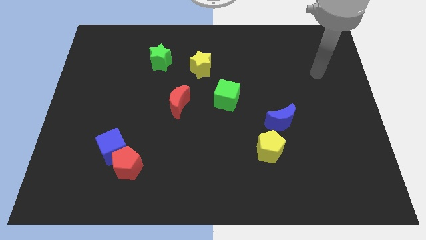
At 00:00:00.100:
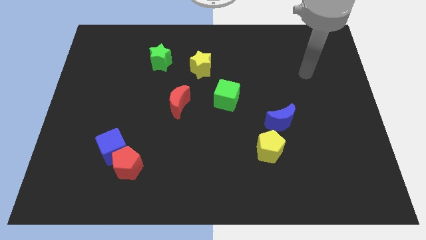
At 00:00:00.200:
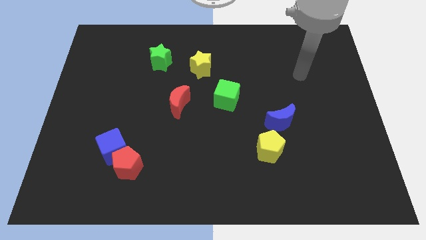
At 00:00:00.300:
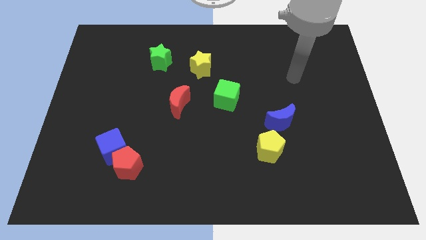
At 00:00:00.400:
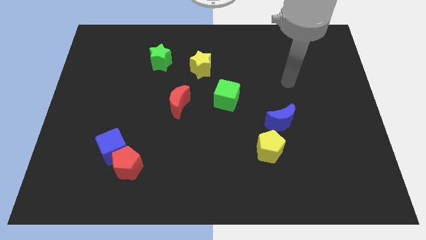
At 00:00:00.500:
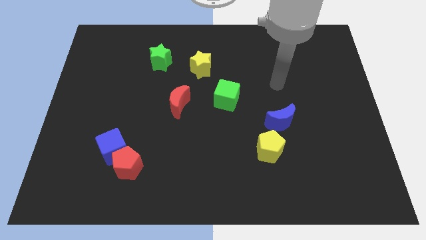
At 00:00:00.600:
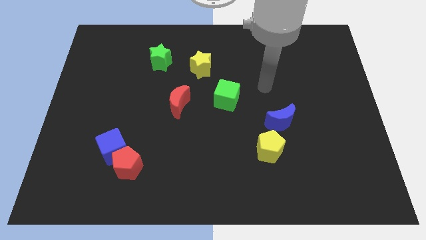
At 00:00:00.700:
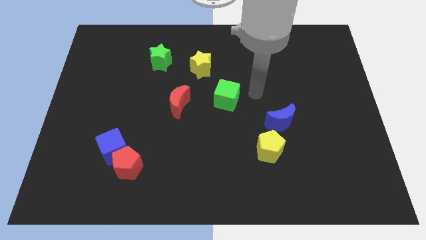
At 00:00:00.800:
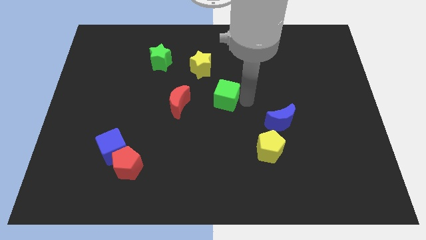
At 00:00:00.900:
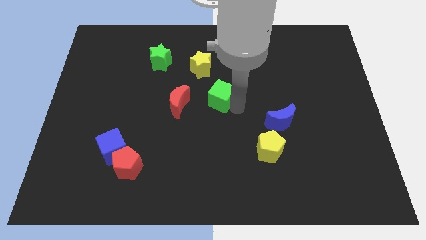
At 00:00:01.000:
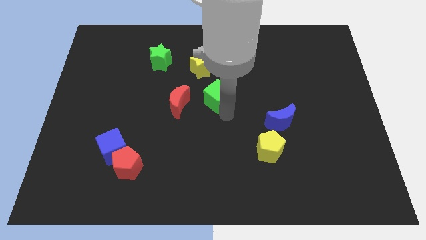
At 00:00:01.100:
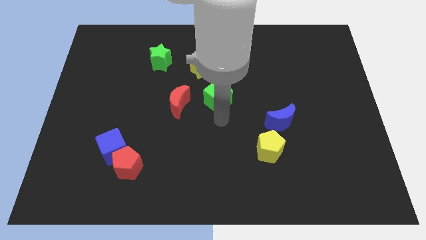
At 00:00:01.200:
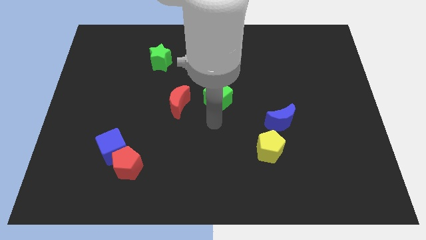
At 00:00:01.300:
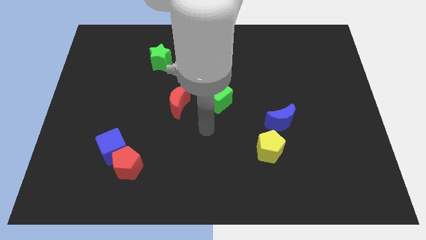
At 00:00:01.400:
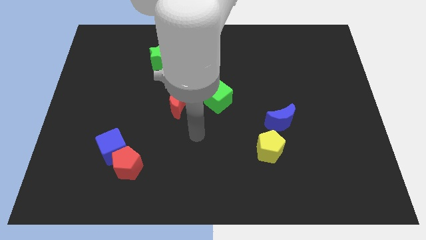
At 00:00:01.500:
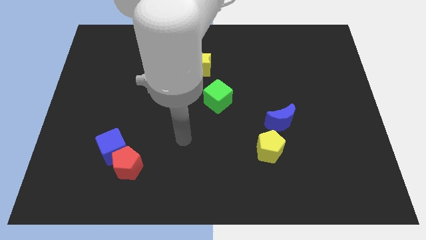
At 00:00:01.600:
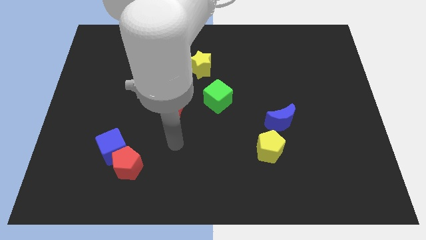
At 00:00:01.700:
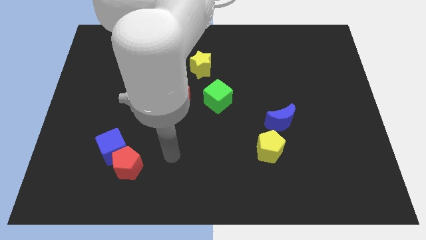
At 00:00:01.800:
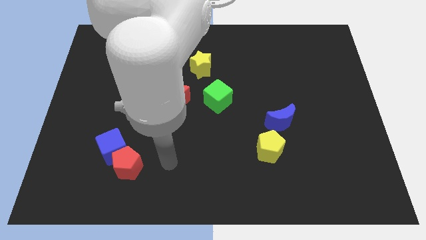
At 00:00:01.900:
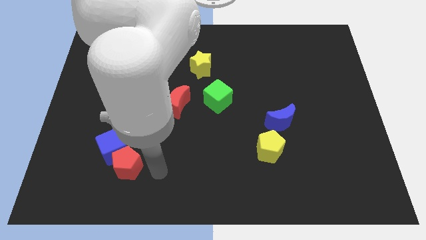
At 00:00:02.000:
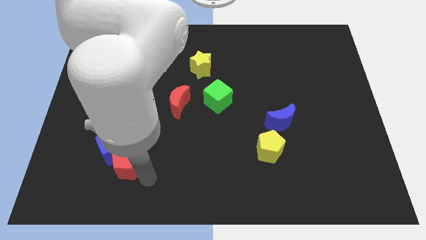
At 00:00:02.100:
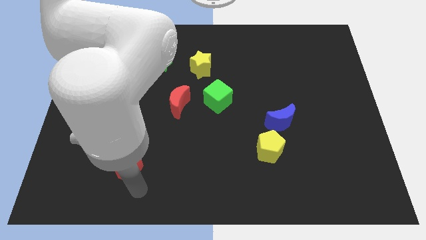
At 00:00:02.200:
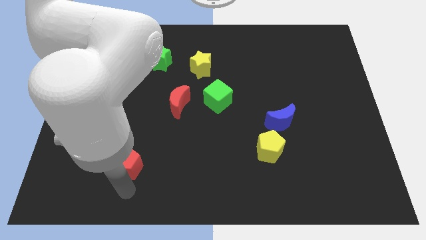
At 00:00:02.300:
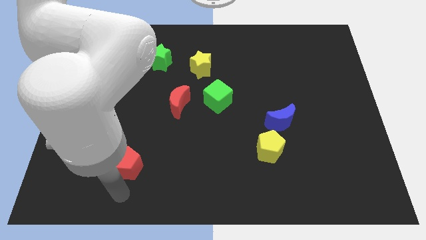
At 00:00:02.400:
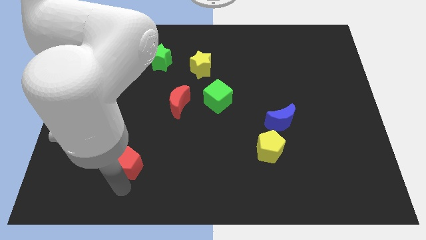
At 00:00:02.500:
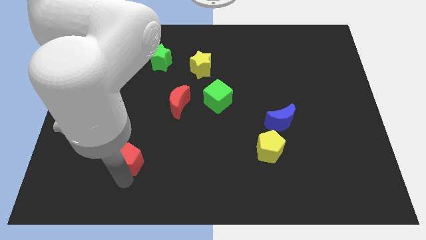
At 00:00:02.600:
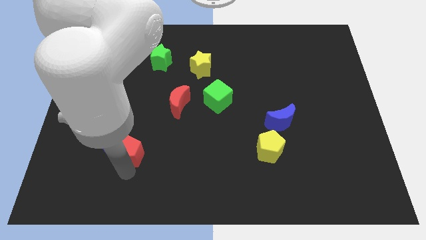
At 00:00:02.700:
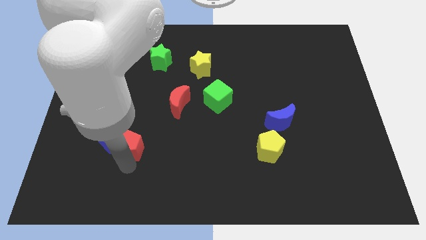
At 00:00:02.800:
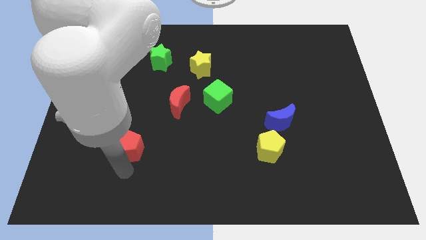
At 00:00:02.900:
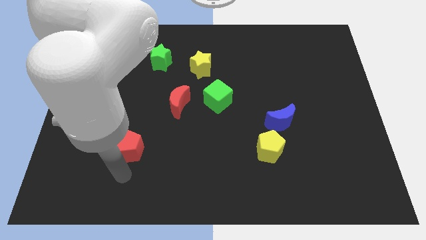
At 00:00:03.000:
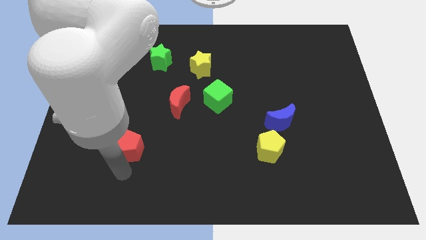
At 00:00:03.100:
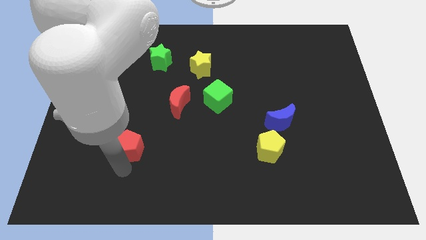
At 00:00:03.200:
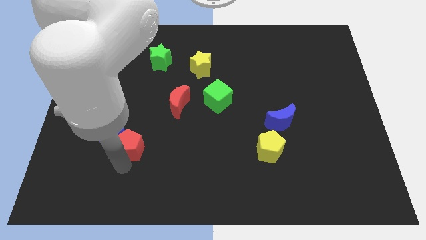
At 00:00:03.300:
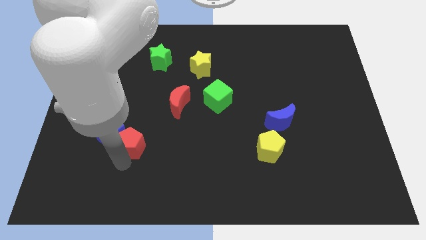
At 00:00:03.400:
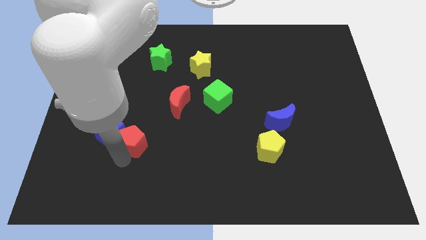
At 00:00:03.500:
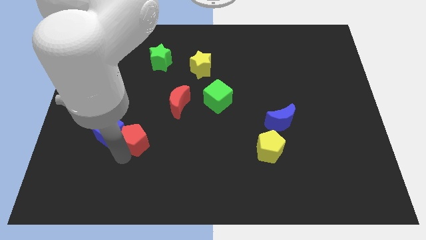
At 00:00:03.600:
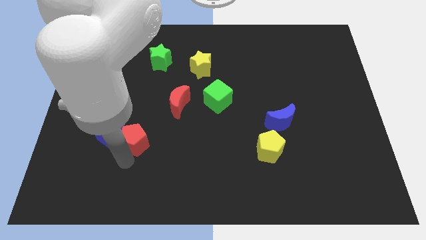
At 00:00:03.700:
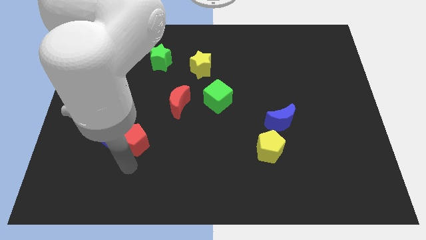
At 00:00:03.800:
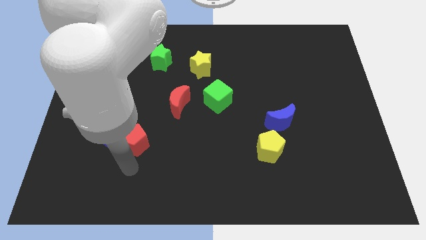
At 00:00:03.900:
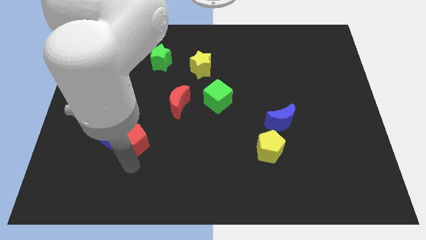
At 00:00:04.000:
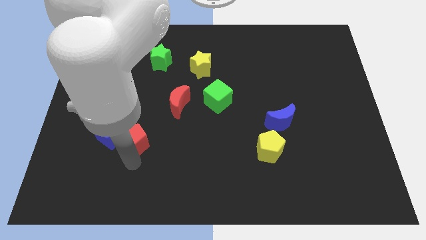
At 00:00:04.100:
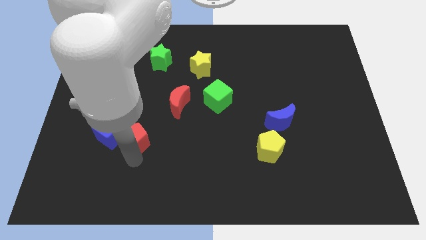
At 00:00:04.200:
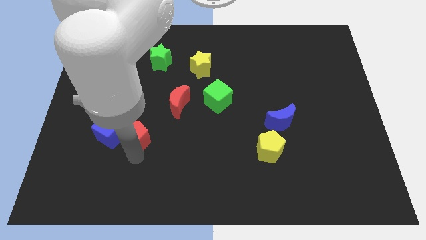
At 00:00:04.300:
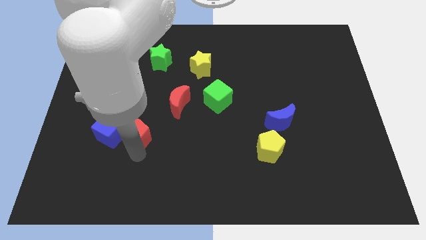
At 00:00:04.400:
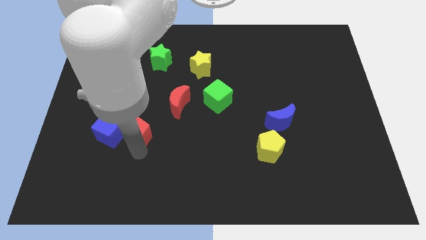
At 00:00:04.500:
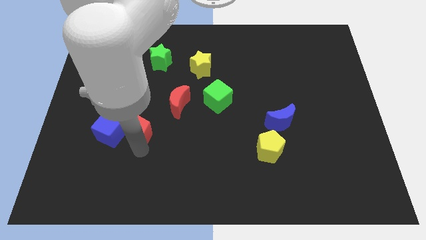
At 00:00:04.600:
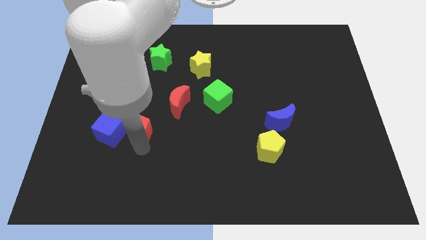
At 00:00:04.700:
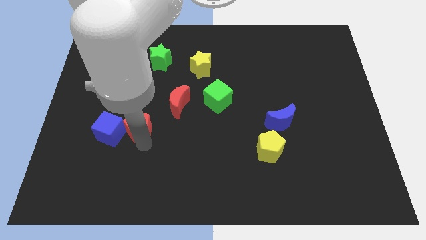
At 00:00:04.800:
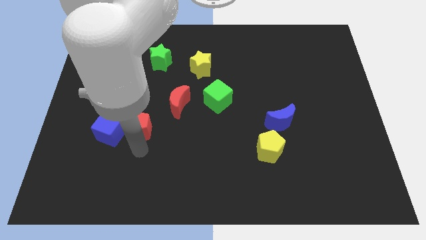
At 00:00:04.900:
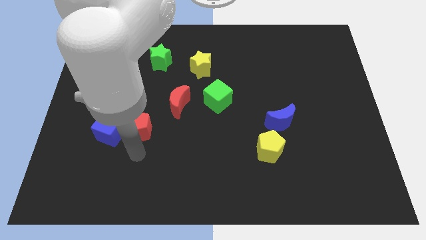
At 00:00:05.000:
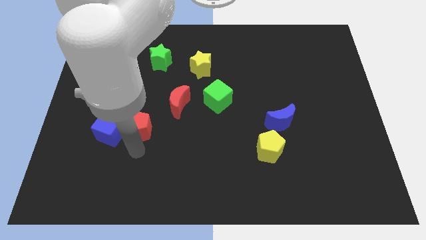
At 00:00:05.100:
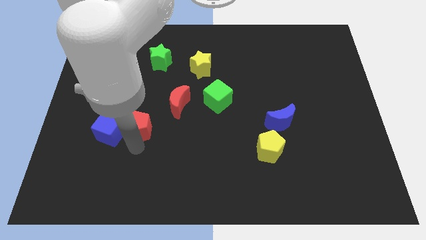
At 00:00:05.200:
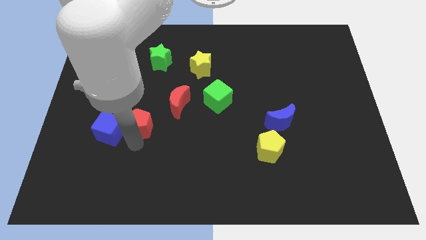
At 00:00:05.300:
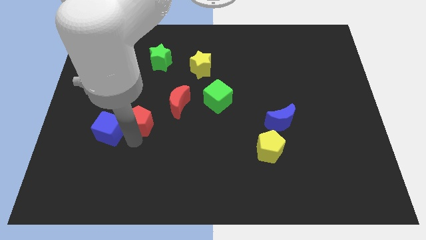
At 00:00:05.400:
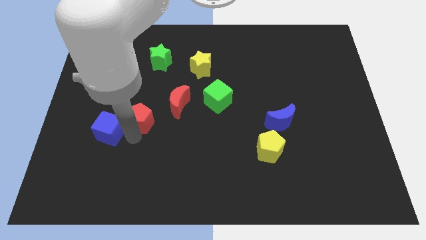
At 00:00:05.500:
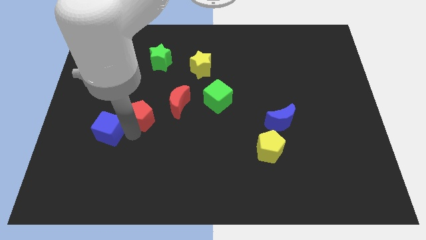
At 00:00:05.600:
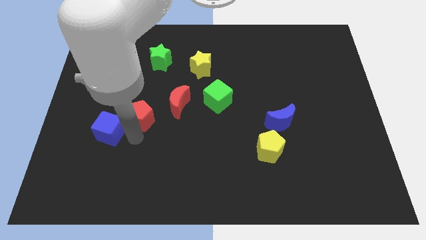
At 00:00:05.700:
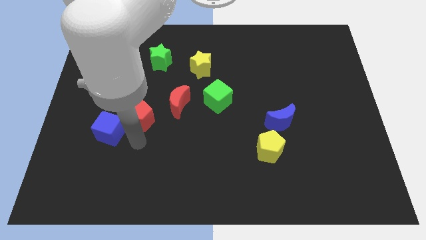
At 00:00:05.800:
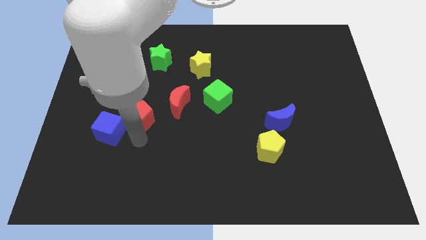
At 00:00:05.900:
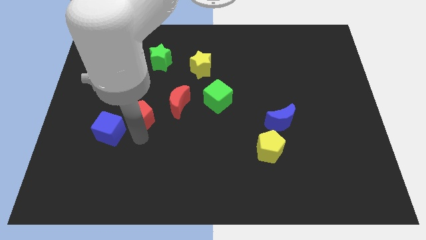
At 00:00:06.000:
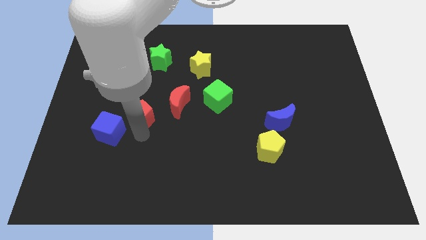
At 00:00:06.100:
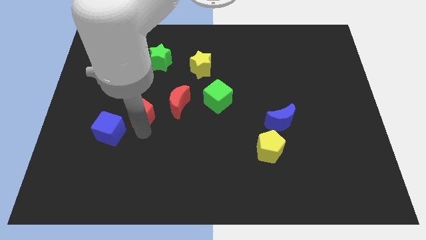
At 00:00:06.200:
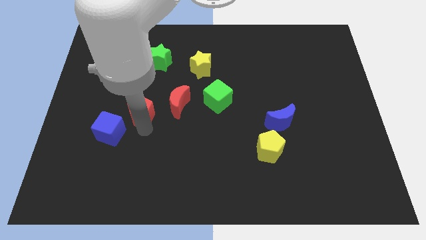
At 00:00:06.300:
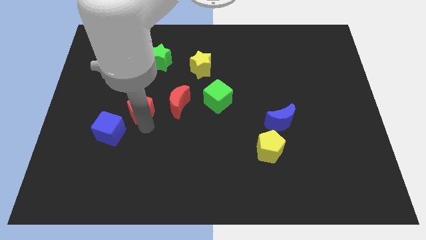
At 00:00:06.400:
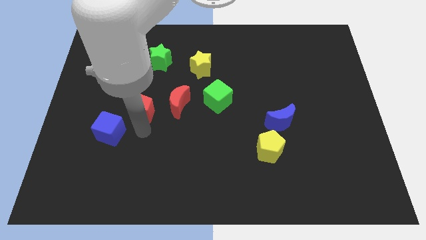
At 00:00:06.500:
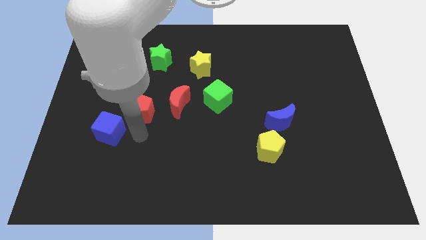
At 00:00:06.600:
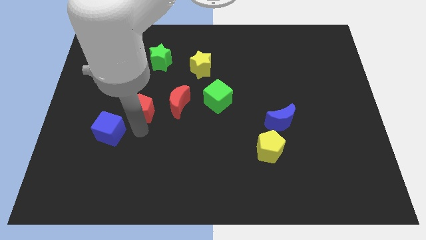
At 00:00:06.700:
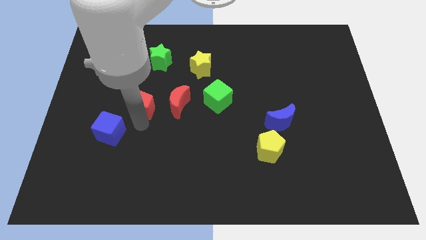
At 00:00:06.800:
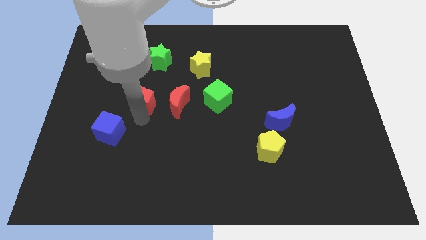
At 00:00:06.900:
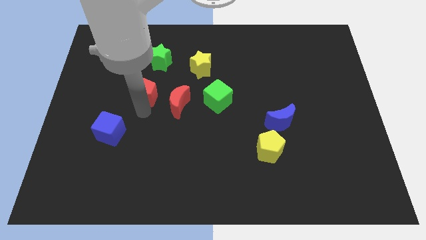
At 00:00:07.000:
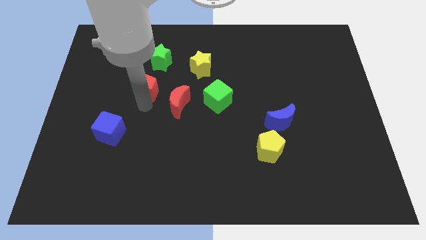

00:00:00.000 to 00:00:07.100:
push the red pentagon upwards

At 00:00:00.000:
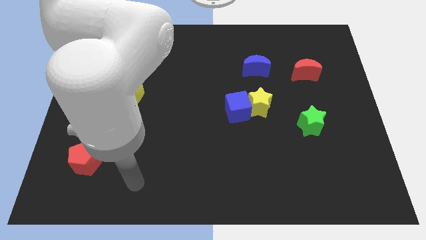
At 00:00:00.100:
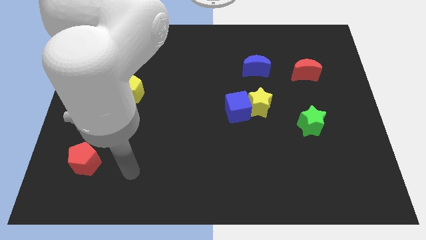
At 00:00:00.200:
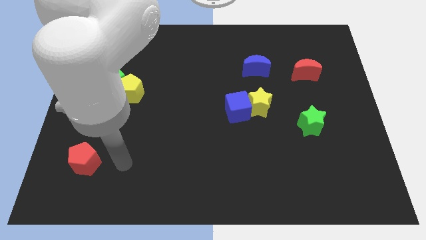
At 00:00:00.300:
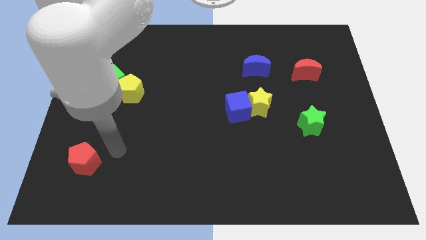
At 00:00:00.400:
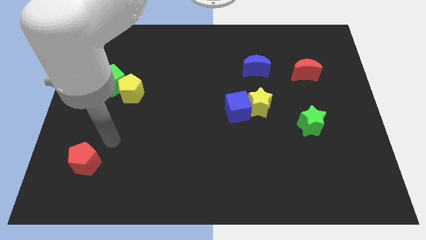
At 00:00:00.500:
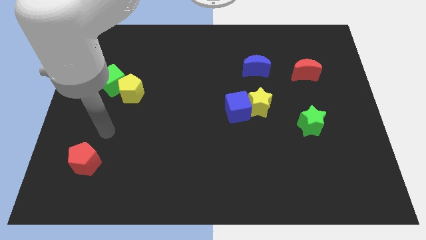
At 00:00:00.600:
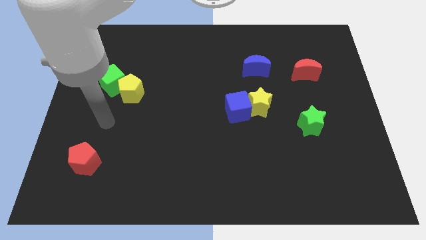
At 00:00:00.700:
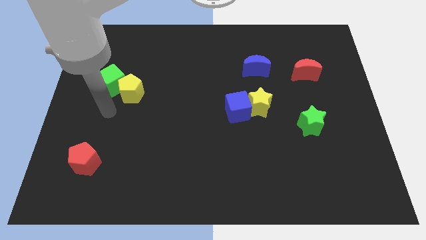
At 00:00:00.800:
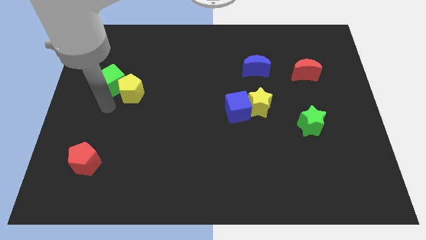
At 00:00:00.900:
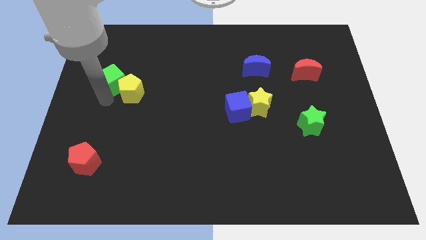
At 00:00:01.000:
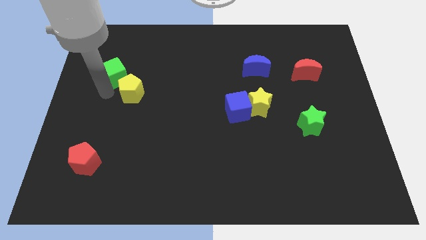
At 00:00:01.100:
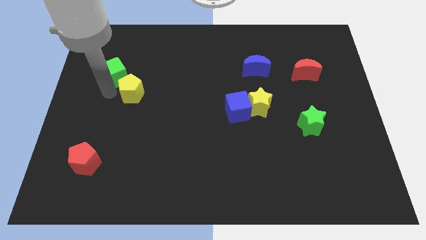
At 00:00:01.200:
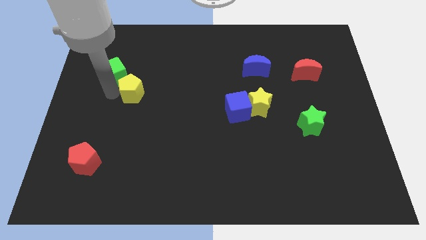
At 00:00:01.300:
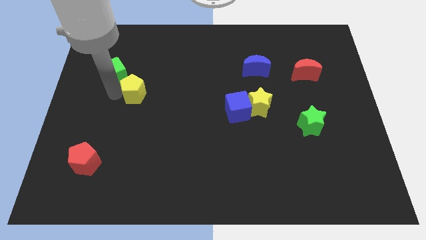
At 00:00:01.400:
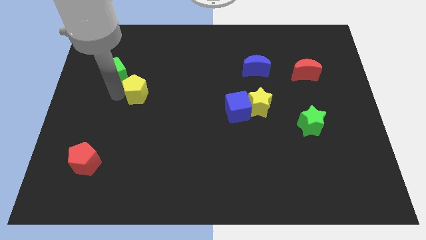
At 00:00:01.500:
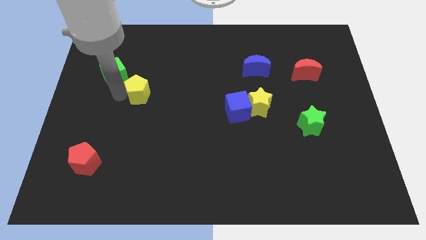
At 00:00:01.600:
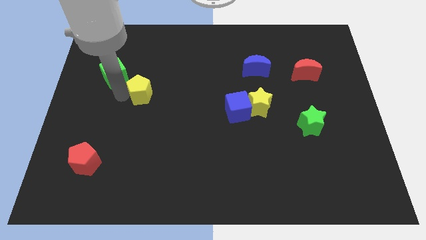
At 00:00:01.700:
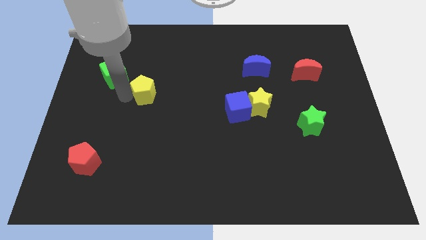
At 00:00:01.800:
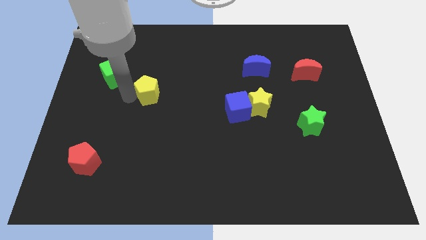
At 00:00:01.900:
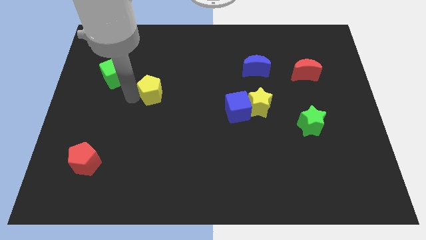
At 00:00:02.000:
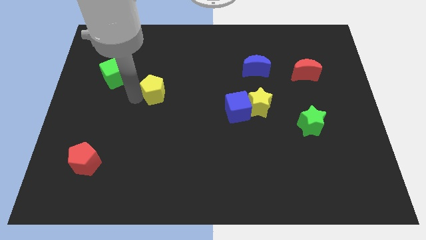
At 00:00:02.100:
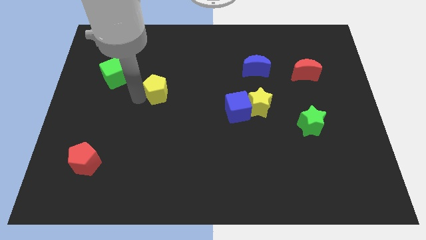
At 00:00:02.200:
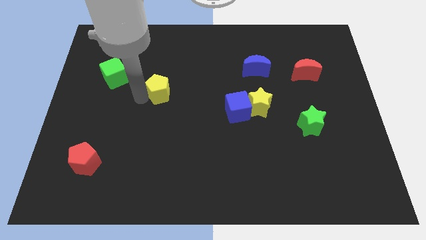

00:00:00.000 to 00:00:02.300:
push the yellow pentagon a bit to the right
